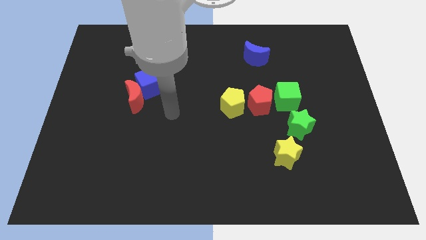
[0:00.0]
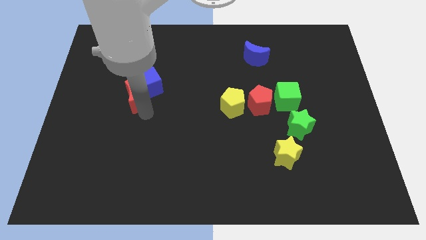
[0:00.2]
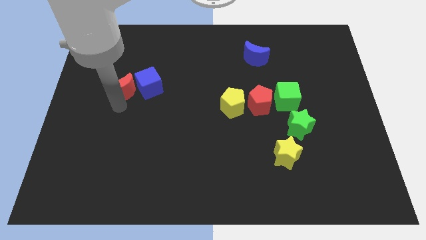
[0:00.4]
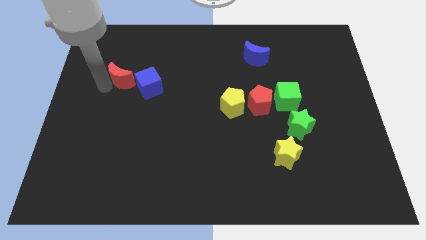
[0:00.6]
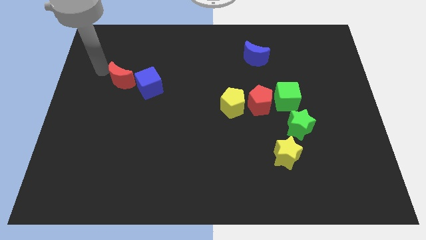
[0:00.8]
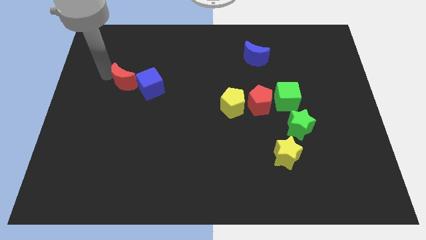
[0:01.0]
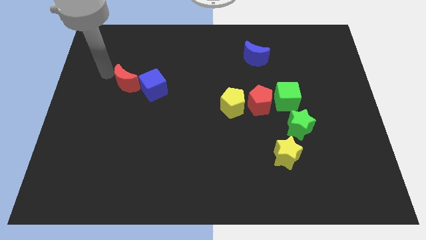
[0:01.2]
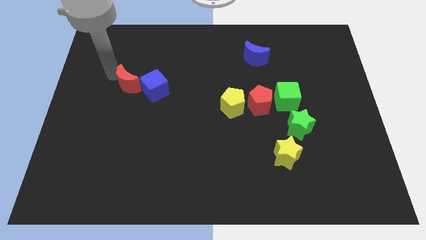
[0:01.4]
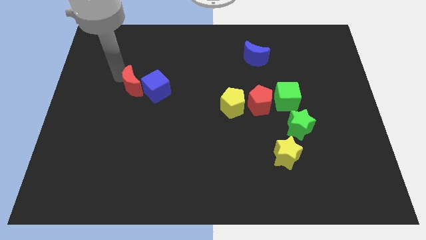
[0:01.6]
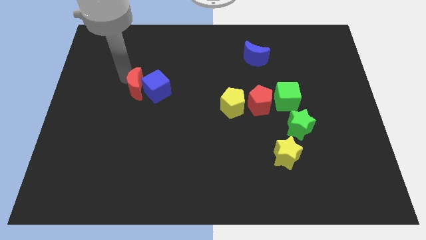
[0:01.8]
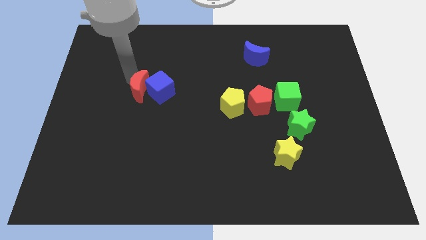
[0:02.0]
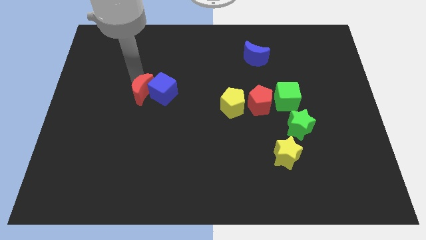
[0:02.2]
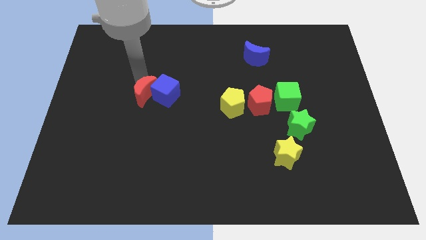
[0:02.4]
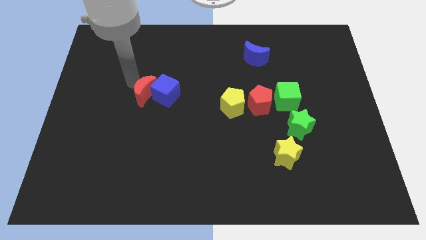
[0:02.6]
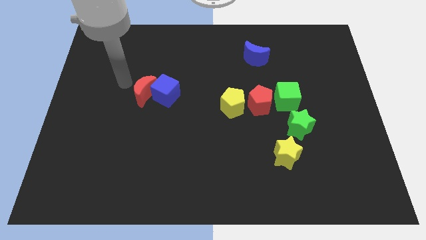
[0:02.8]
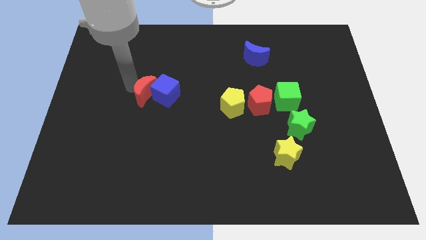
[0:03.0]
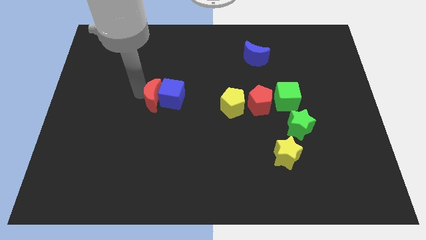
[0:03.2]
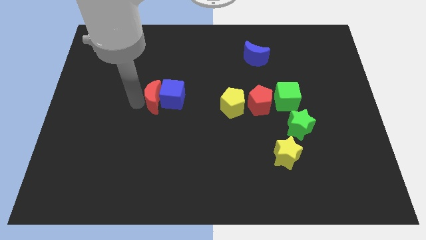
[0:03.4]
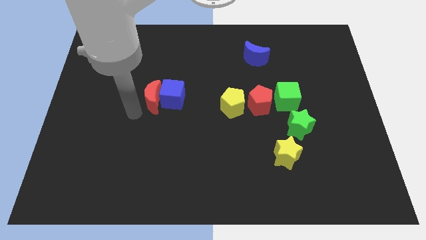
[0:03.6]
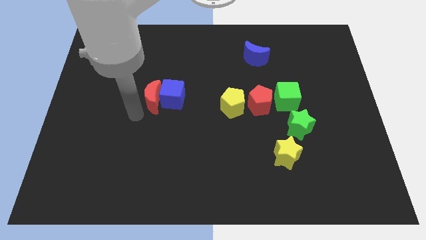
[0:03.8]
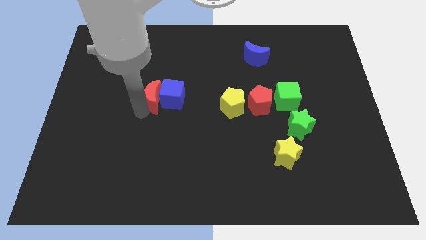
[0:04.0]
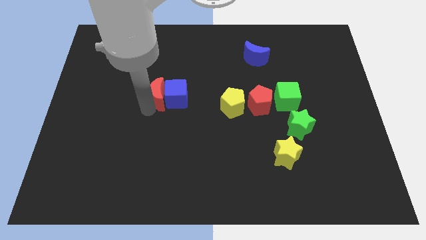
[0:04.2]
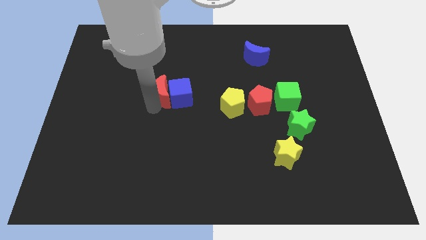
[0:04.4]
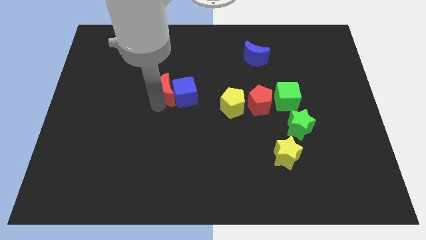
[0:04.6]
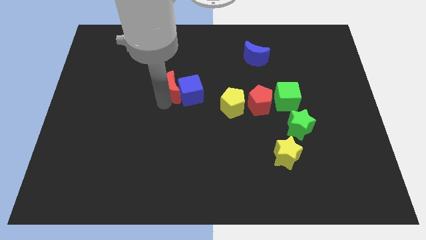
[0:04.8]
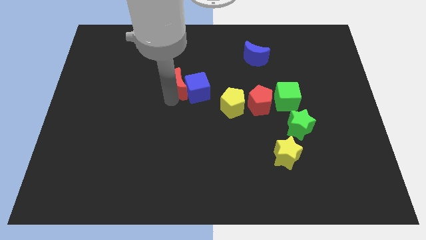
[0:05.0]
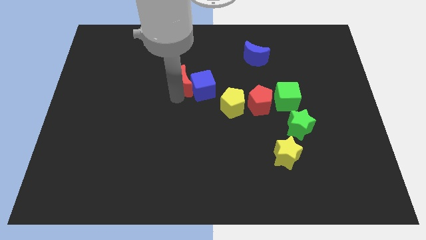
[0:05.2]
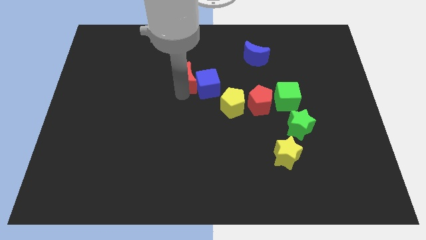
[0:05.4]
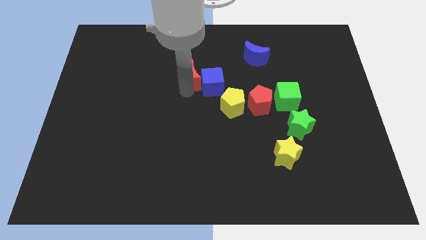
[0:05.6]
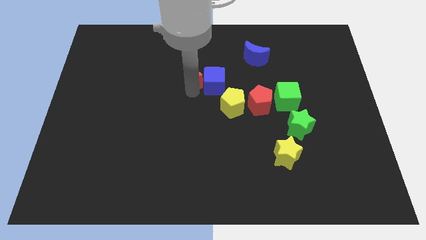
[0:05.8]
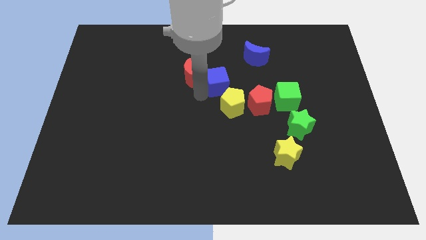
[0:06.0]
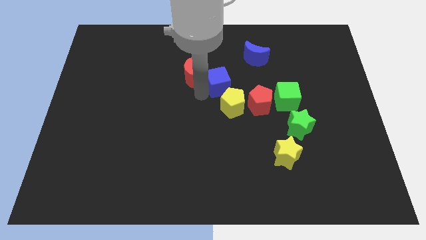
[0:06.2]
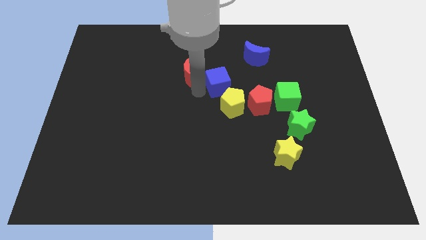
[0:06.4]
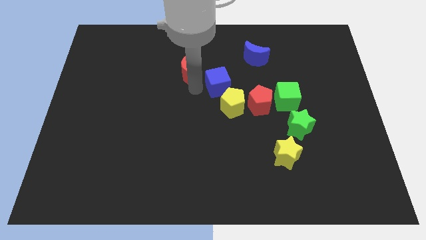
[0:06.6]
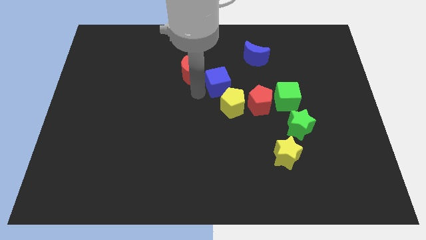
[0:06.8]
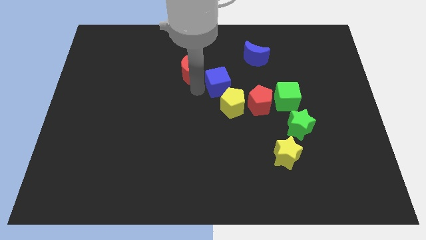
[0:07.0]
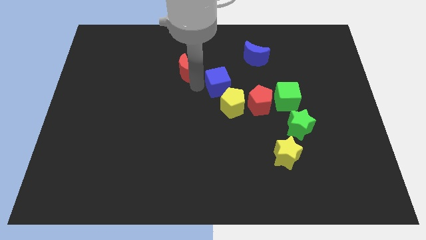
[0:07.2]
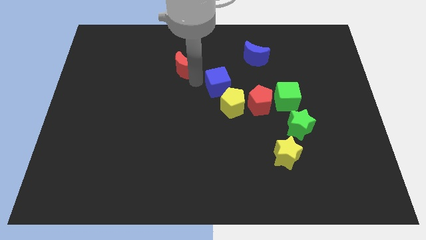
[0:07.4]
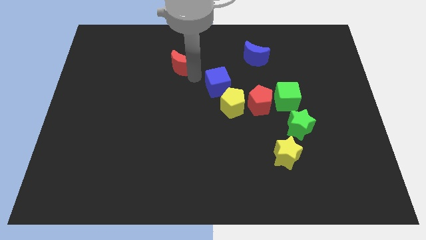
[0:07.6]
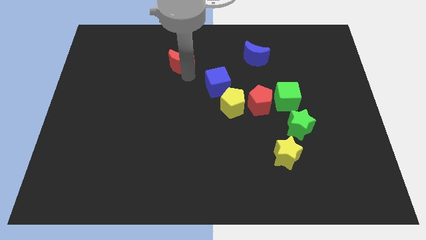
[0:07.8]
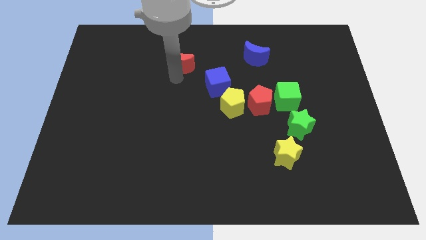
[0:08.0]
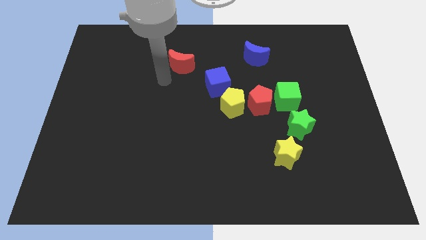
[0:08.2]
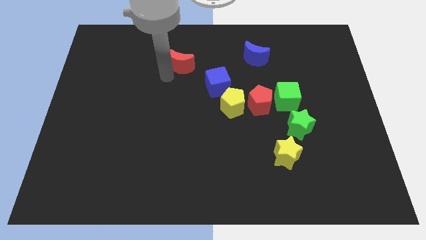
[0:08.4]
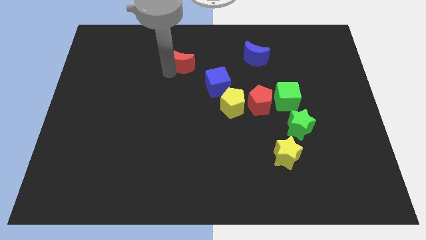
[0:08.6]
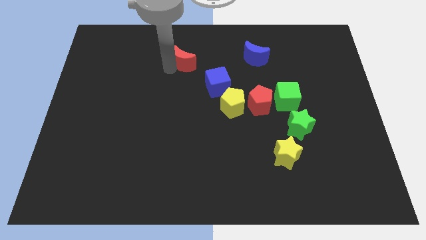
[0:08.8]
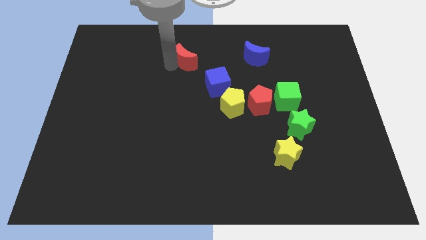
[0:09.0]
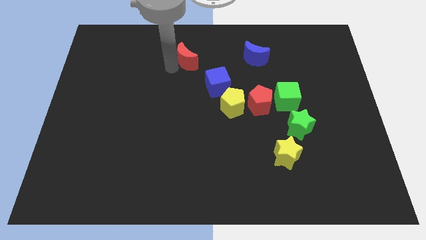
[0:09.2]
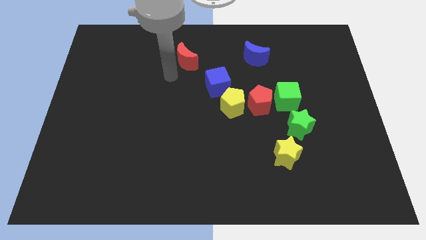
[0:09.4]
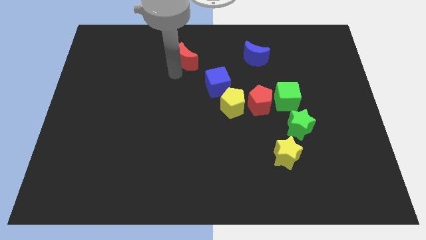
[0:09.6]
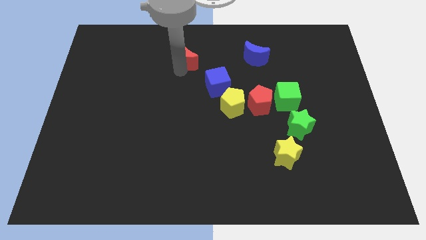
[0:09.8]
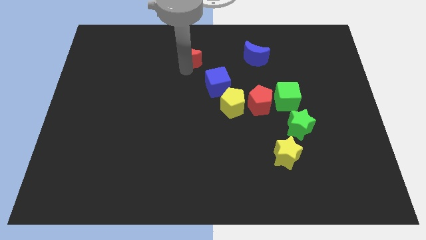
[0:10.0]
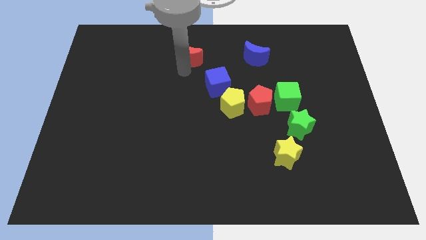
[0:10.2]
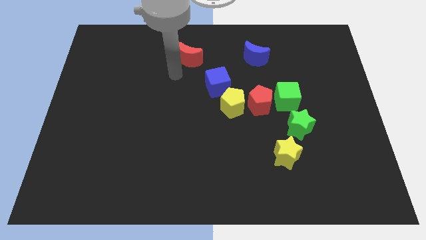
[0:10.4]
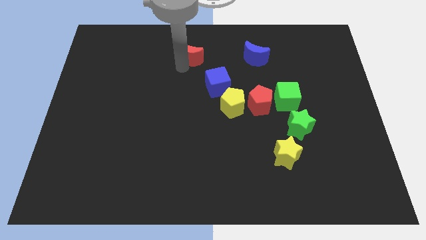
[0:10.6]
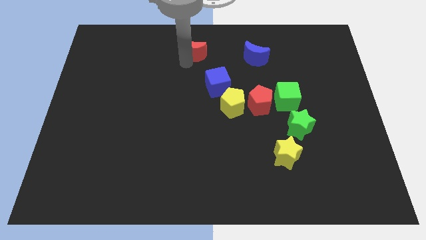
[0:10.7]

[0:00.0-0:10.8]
move the red moon to the top

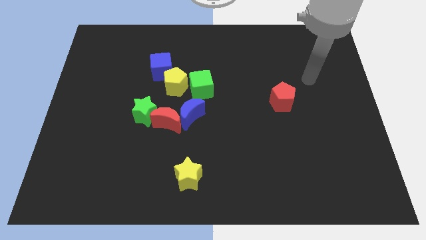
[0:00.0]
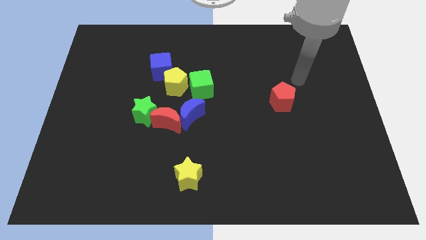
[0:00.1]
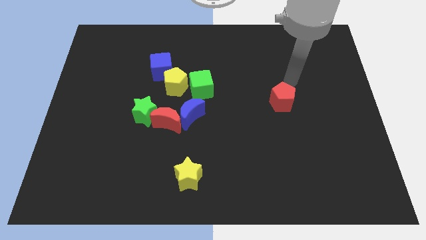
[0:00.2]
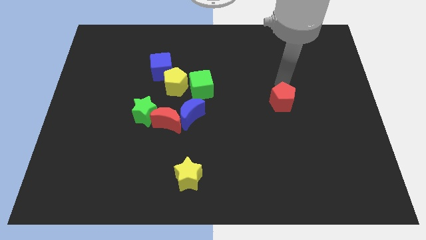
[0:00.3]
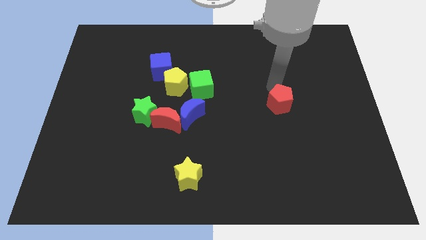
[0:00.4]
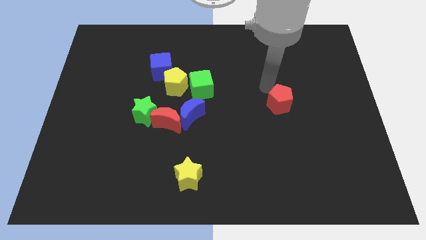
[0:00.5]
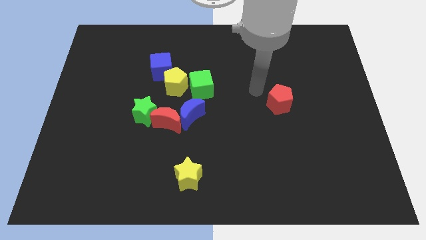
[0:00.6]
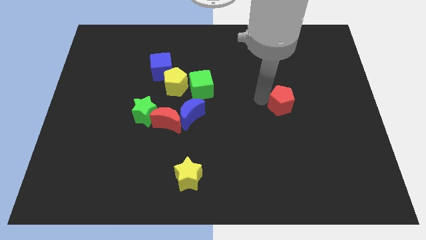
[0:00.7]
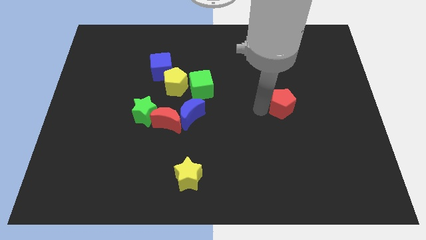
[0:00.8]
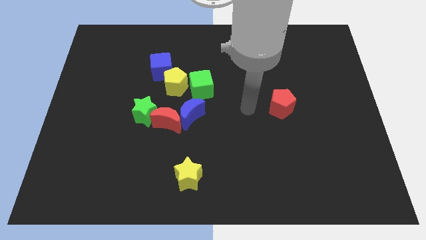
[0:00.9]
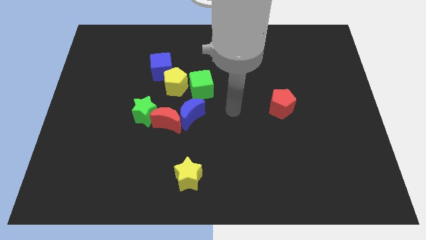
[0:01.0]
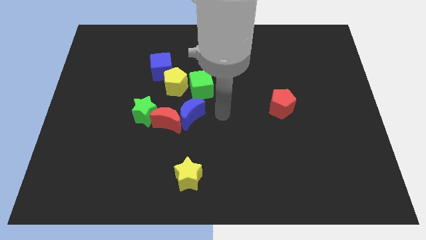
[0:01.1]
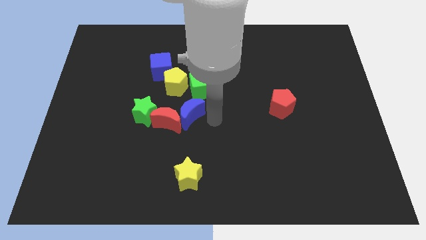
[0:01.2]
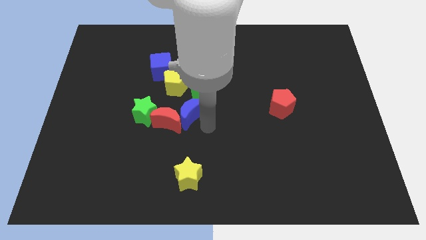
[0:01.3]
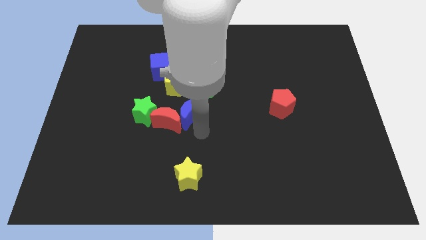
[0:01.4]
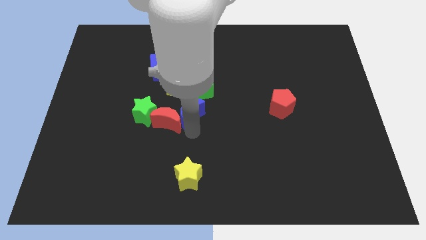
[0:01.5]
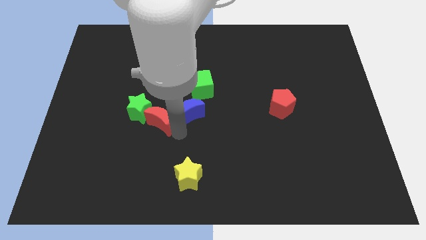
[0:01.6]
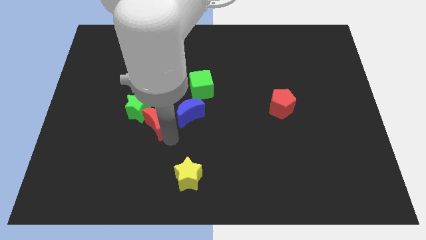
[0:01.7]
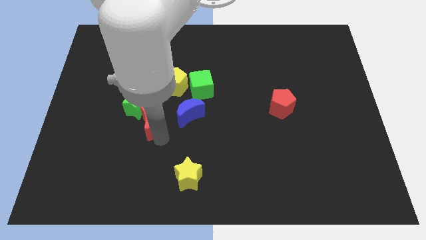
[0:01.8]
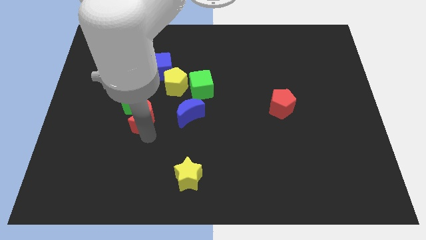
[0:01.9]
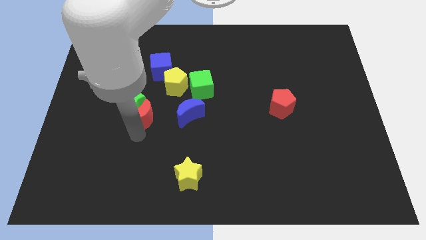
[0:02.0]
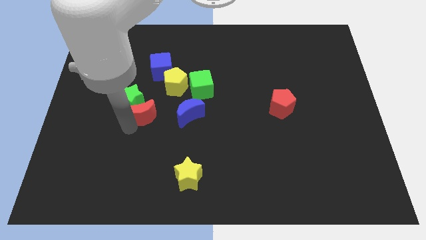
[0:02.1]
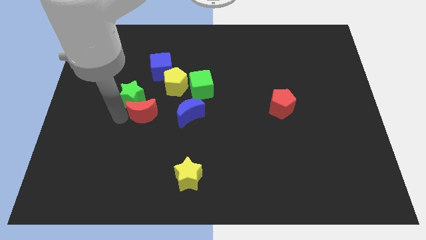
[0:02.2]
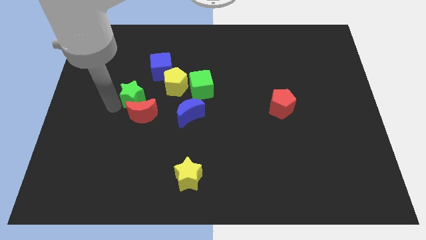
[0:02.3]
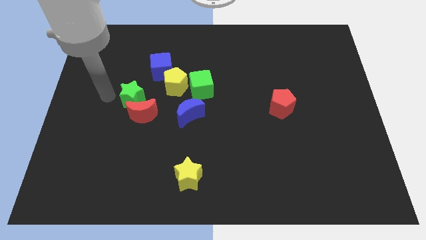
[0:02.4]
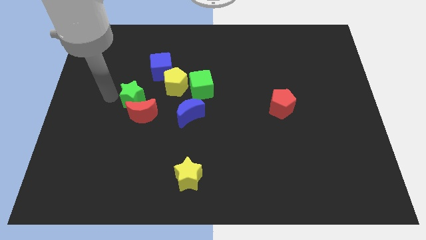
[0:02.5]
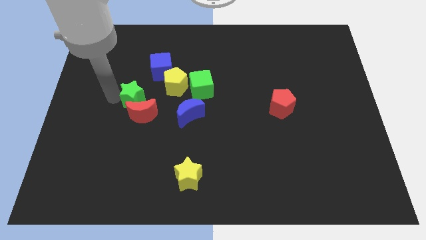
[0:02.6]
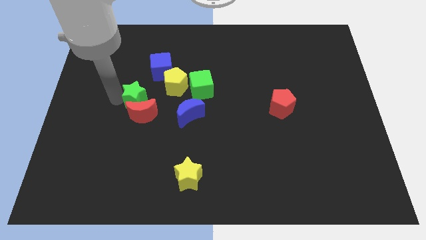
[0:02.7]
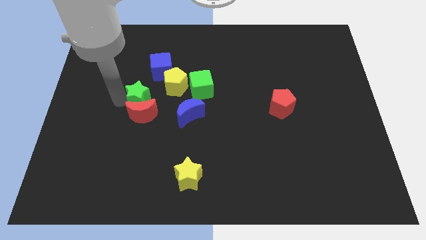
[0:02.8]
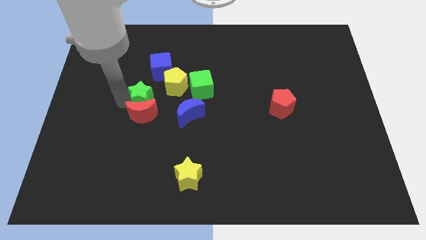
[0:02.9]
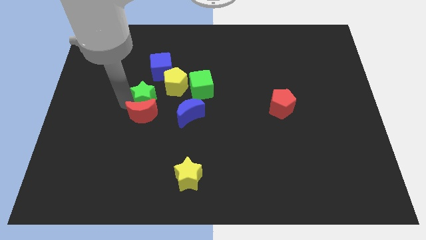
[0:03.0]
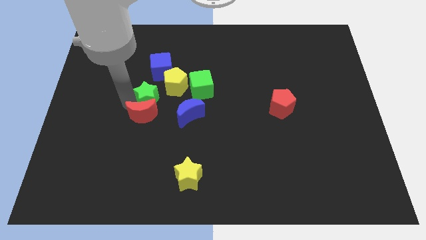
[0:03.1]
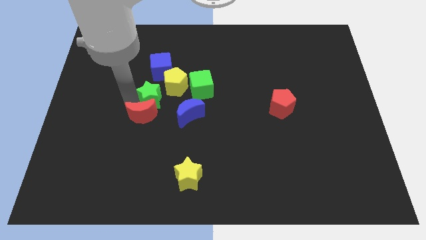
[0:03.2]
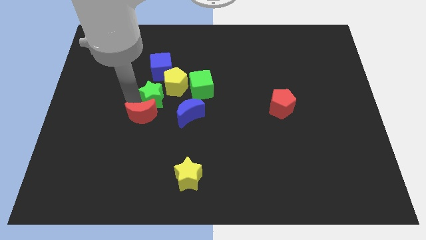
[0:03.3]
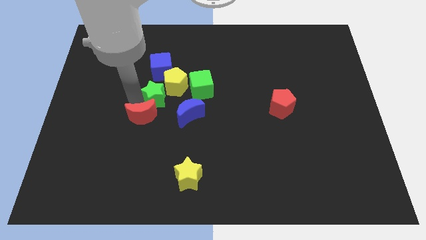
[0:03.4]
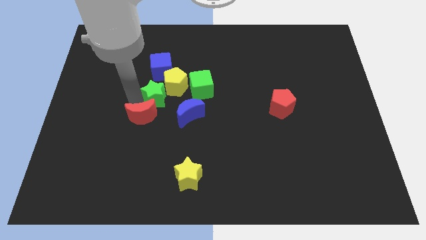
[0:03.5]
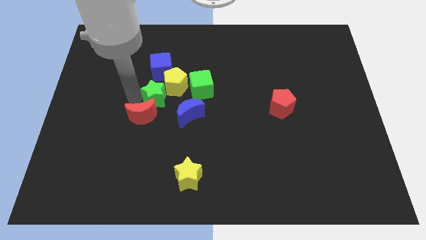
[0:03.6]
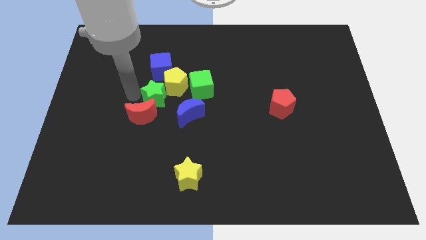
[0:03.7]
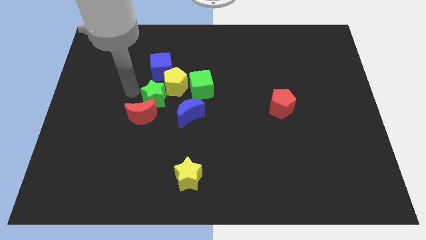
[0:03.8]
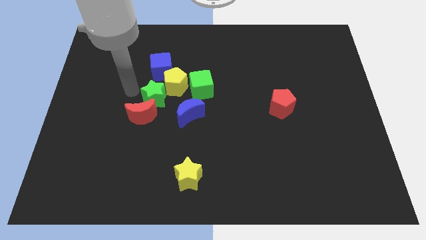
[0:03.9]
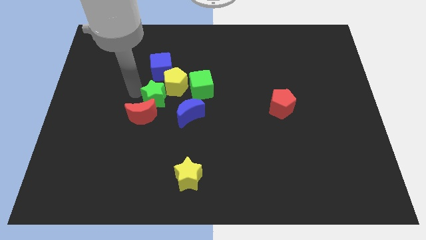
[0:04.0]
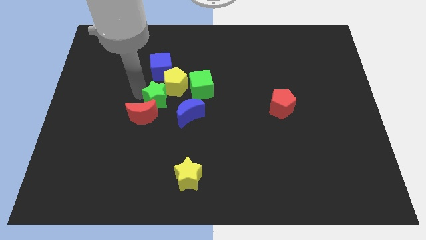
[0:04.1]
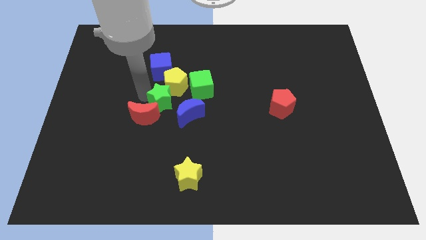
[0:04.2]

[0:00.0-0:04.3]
move the green star to the center
